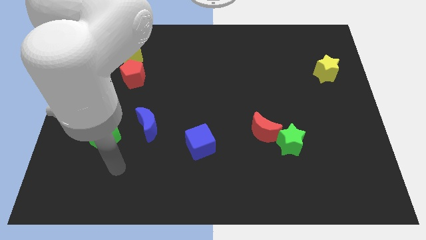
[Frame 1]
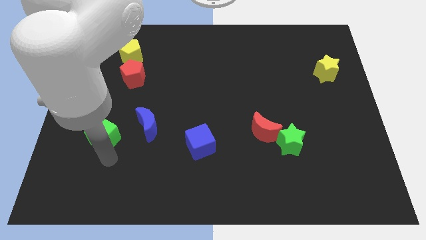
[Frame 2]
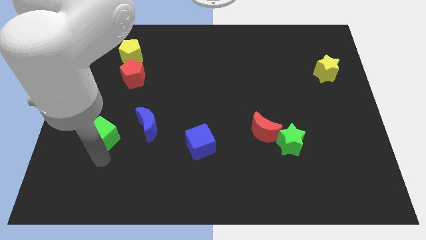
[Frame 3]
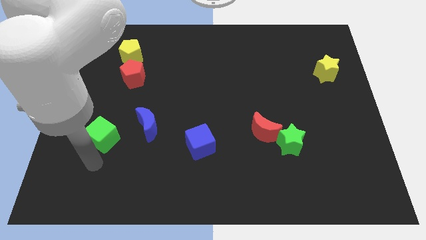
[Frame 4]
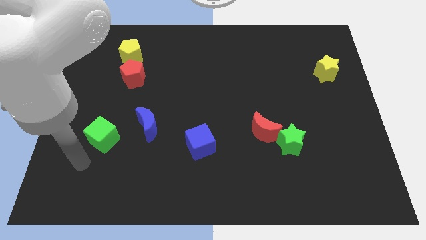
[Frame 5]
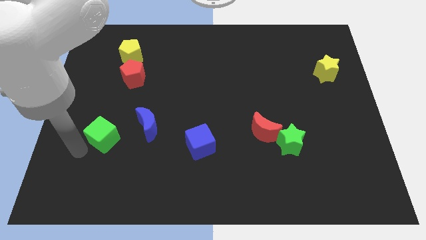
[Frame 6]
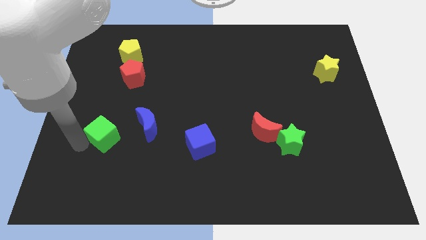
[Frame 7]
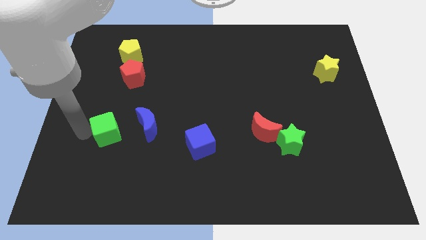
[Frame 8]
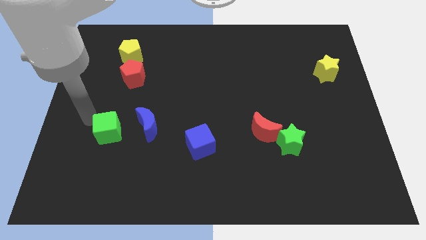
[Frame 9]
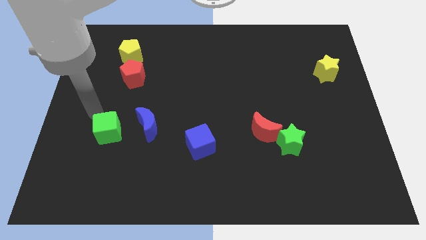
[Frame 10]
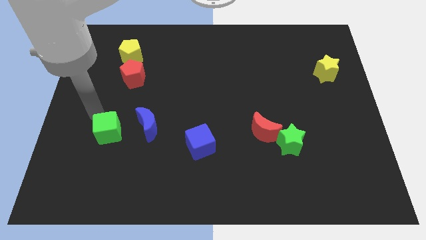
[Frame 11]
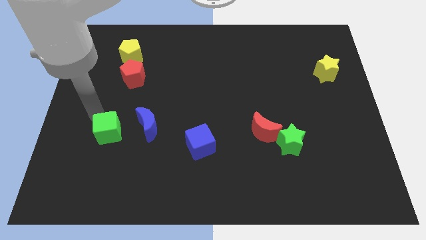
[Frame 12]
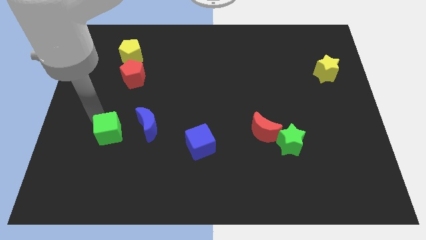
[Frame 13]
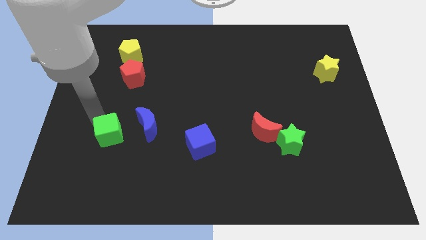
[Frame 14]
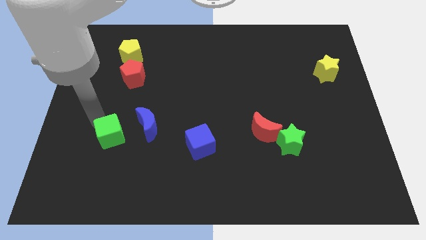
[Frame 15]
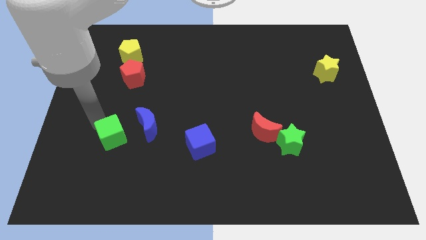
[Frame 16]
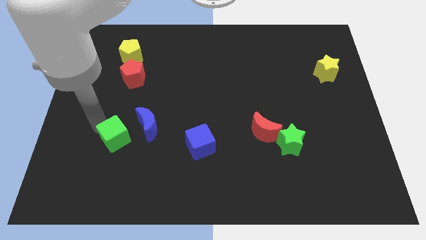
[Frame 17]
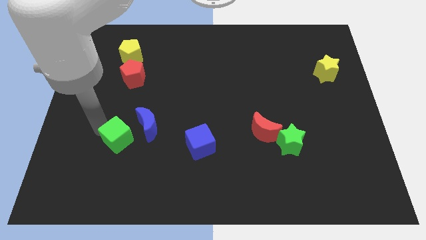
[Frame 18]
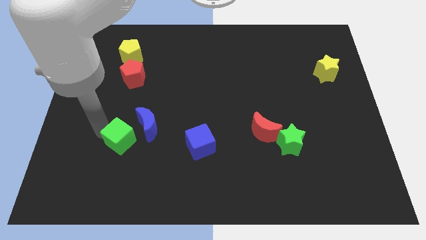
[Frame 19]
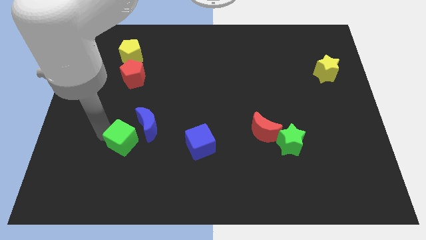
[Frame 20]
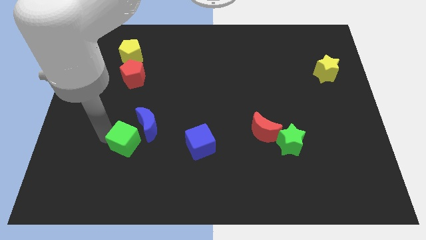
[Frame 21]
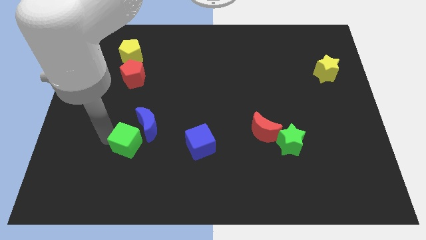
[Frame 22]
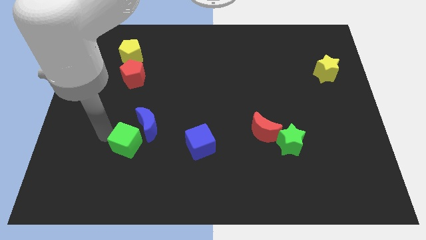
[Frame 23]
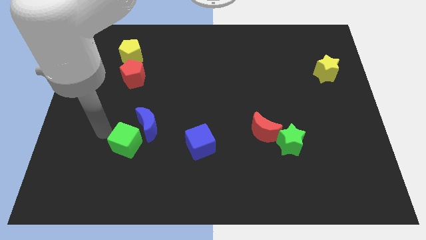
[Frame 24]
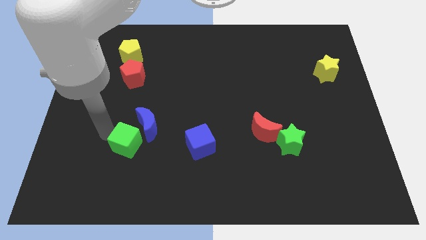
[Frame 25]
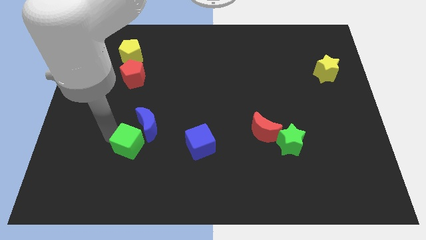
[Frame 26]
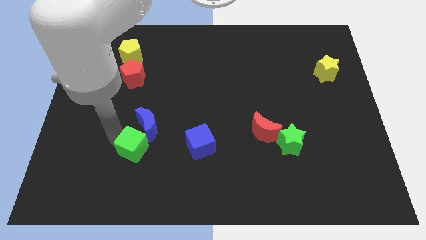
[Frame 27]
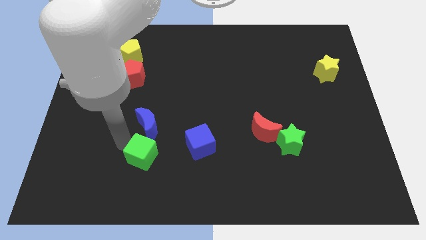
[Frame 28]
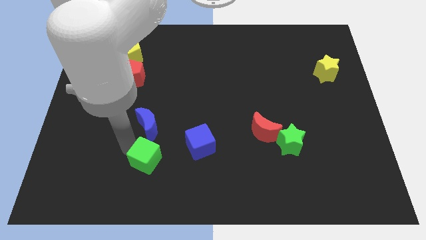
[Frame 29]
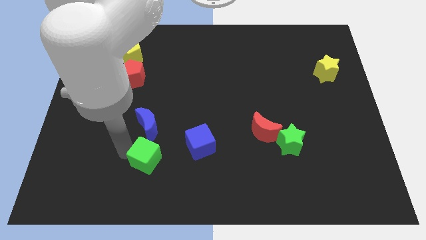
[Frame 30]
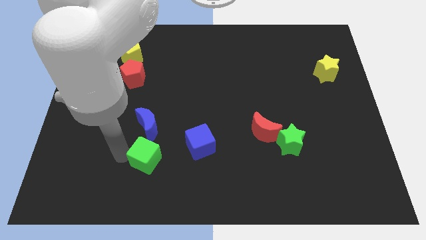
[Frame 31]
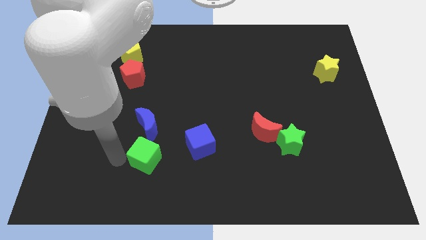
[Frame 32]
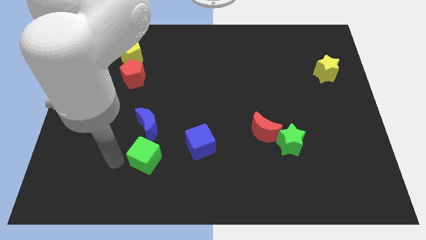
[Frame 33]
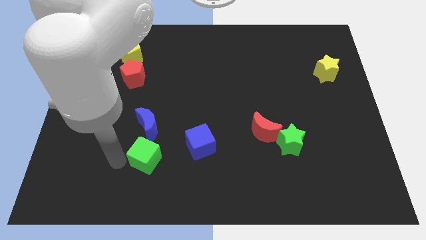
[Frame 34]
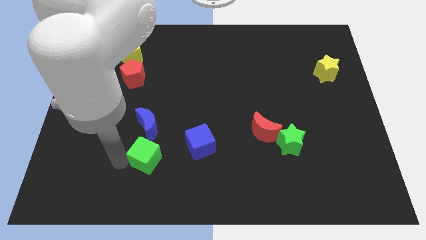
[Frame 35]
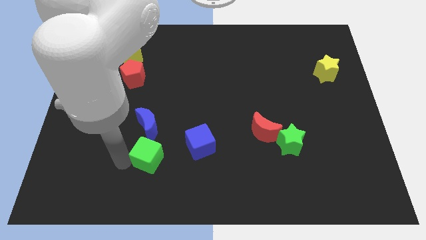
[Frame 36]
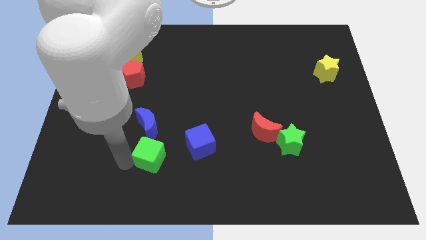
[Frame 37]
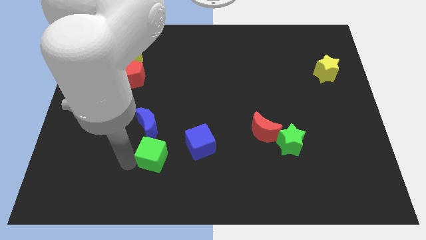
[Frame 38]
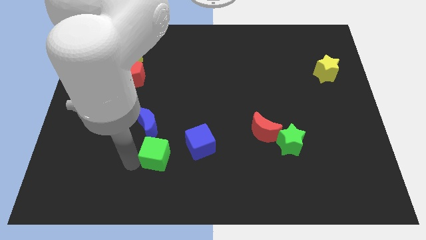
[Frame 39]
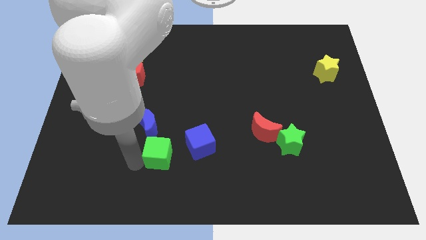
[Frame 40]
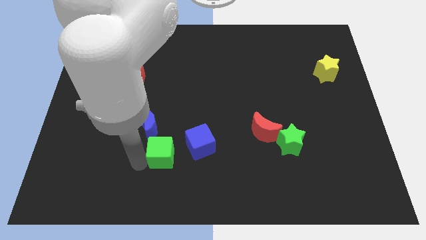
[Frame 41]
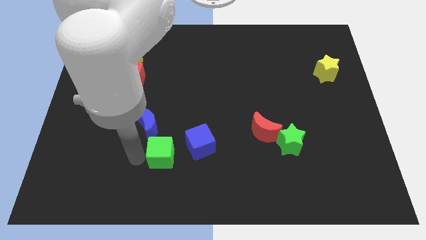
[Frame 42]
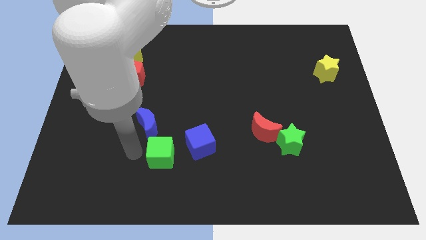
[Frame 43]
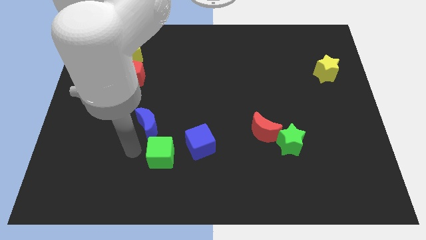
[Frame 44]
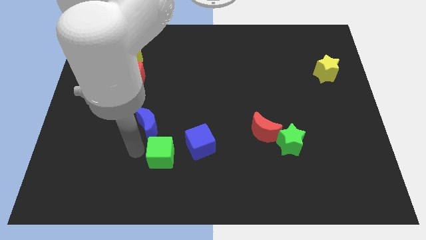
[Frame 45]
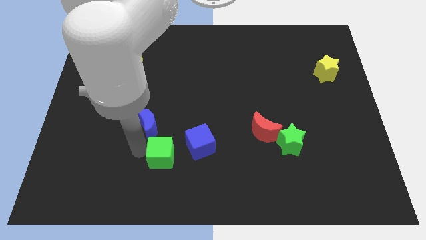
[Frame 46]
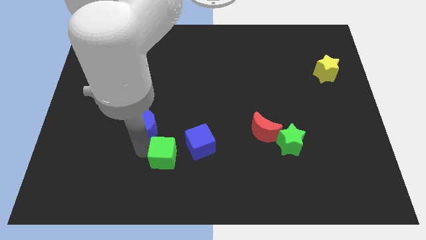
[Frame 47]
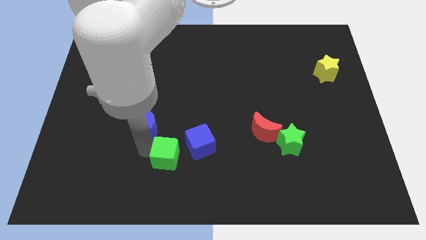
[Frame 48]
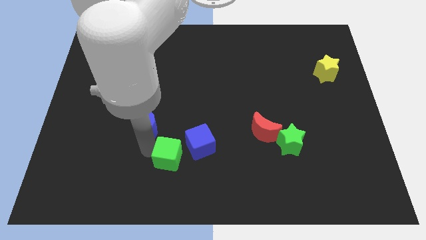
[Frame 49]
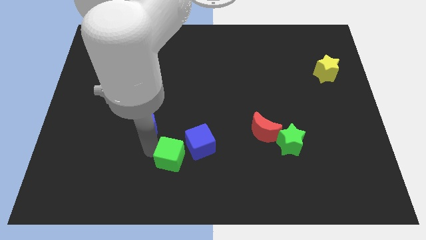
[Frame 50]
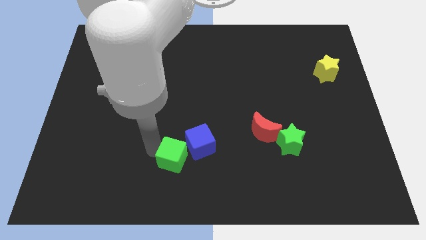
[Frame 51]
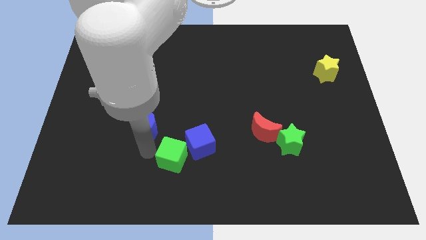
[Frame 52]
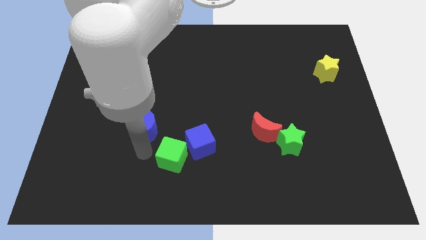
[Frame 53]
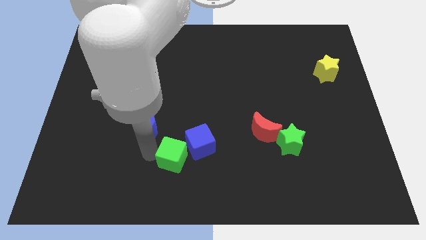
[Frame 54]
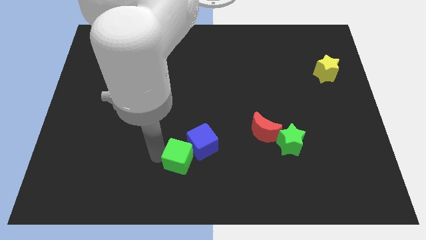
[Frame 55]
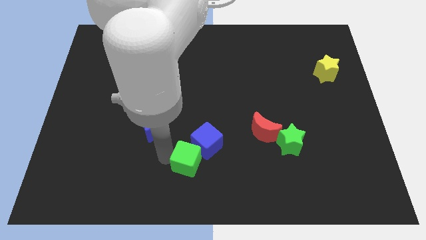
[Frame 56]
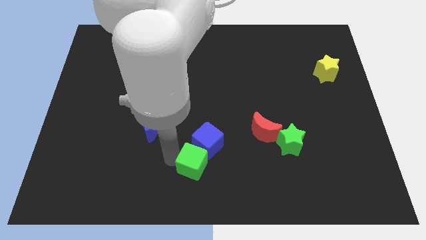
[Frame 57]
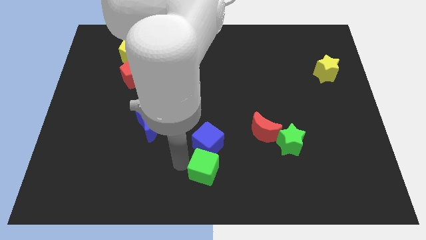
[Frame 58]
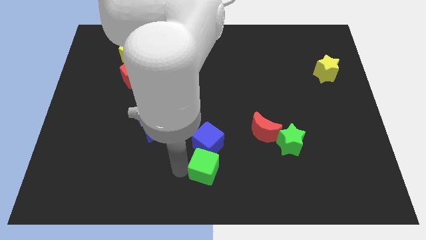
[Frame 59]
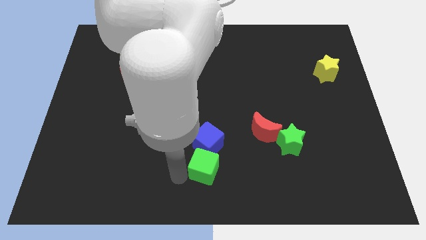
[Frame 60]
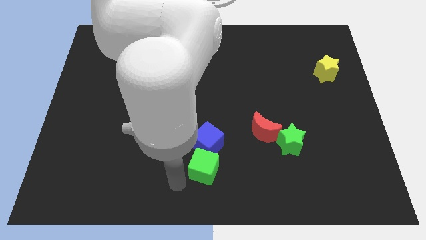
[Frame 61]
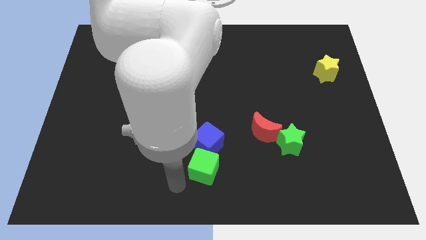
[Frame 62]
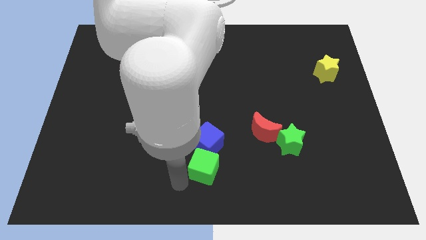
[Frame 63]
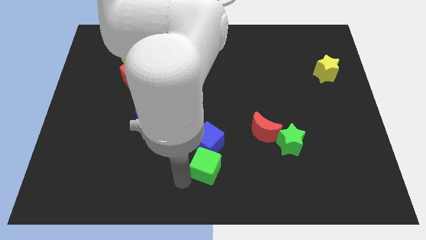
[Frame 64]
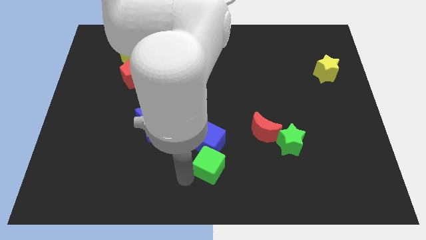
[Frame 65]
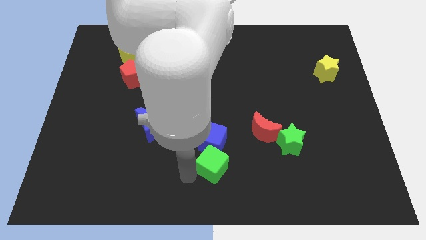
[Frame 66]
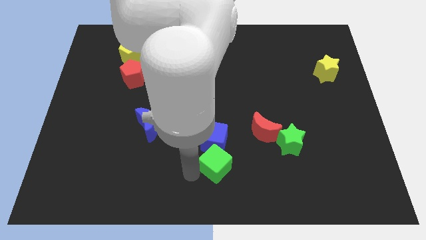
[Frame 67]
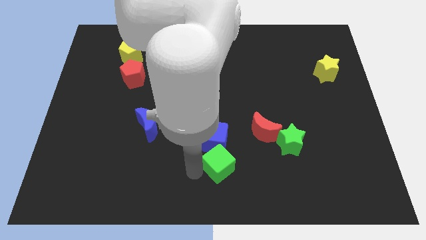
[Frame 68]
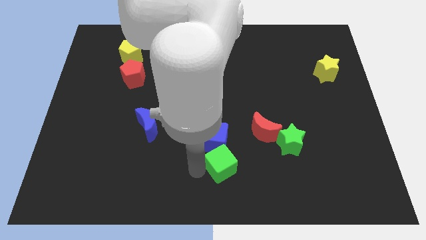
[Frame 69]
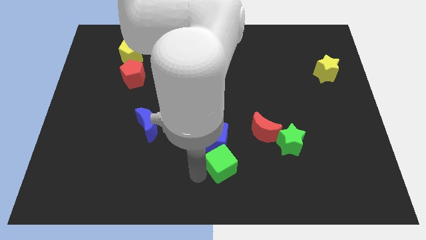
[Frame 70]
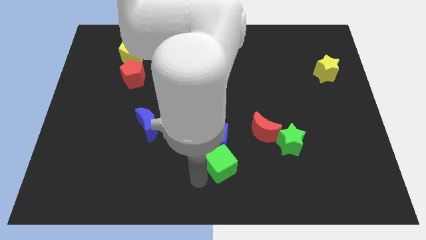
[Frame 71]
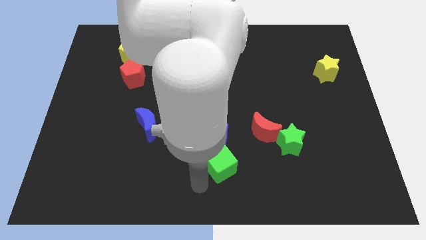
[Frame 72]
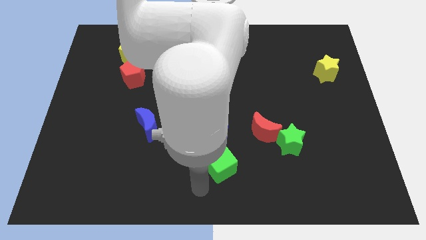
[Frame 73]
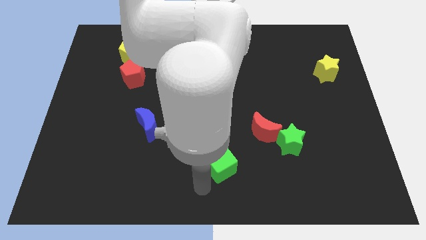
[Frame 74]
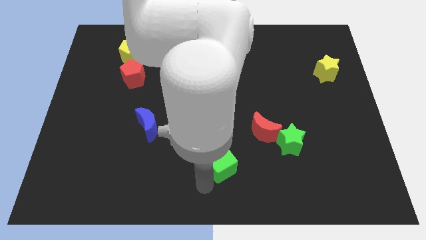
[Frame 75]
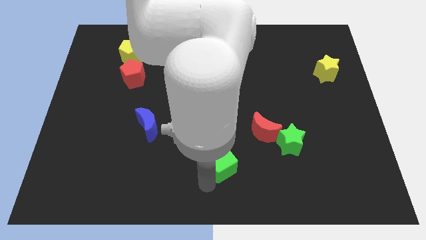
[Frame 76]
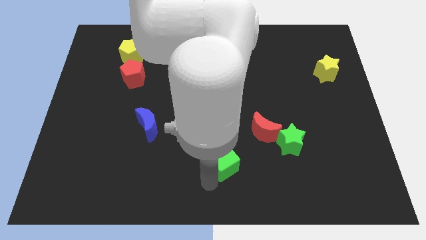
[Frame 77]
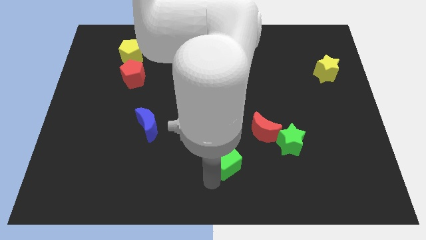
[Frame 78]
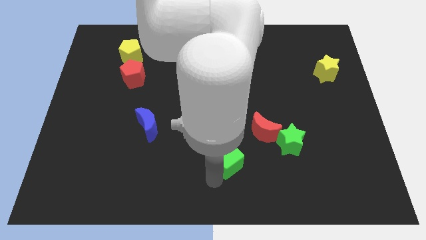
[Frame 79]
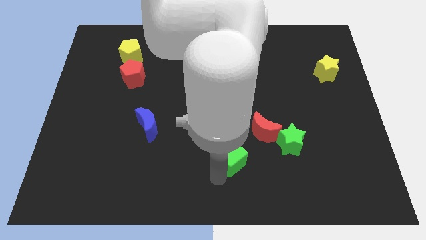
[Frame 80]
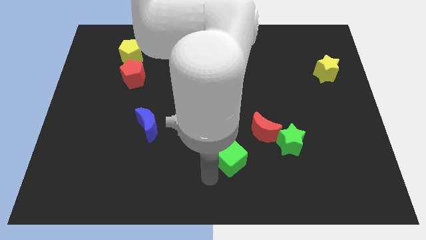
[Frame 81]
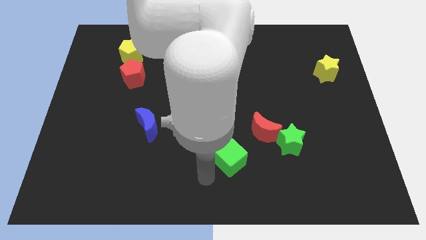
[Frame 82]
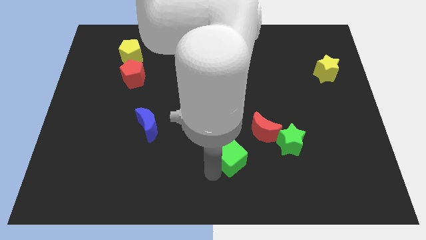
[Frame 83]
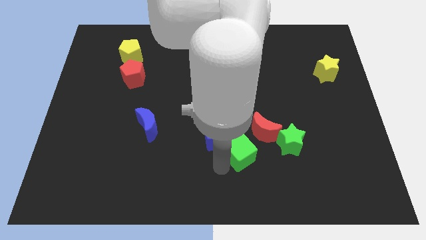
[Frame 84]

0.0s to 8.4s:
push the green cube just right of the blue cube

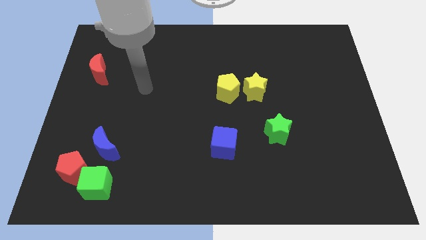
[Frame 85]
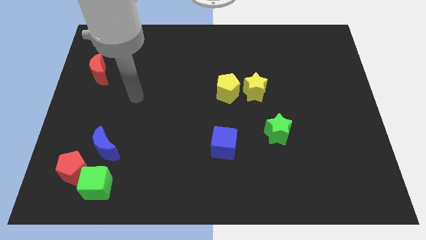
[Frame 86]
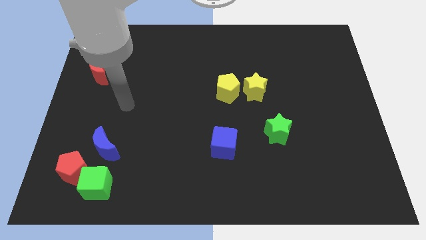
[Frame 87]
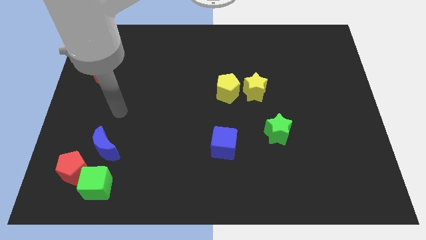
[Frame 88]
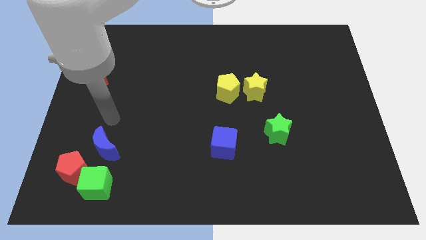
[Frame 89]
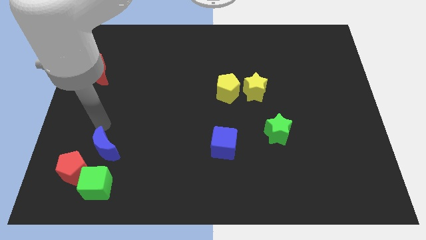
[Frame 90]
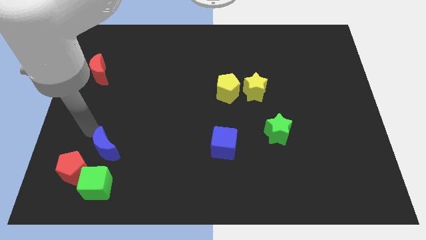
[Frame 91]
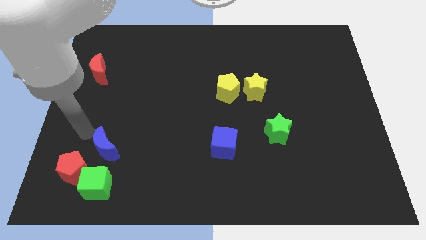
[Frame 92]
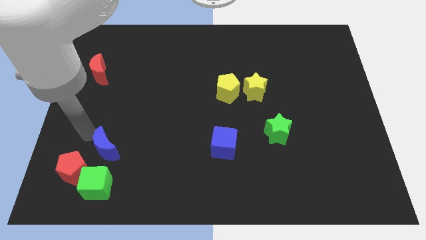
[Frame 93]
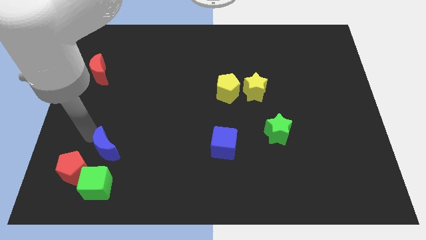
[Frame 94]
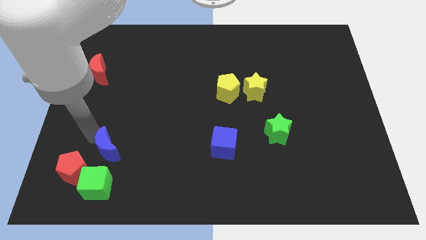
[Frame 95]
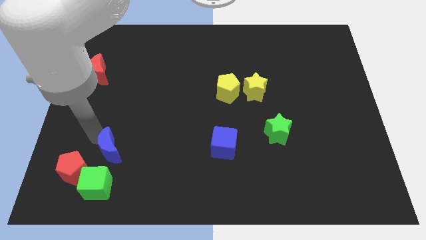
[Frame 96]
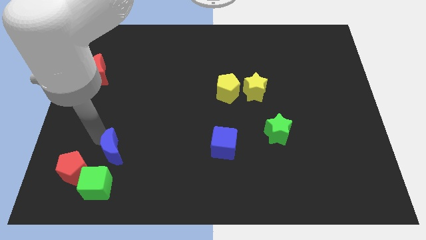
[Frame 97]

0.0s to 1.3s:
move the blue moon diagonally up and to the right of the green cube
